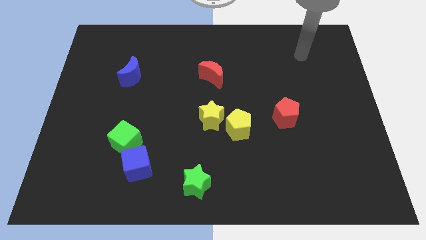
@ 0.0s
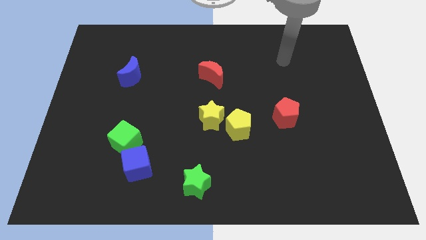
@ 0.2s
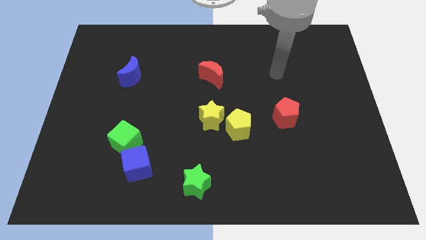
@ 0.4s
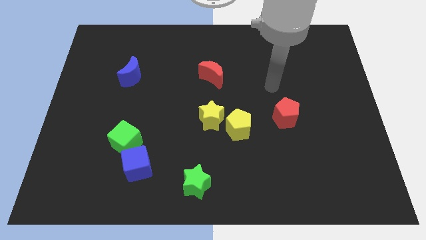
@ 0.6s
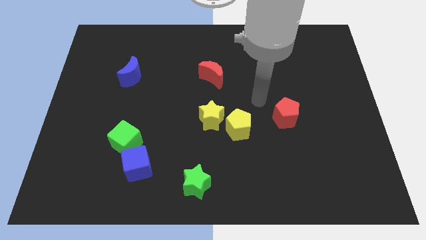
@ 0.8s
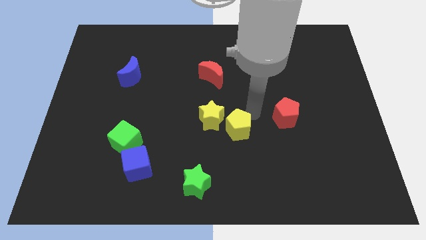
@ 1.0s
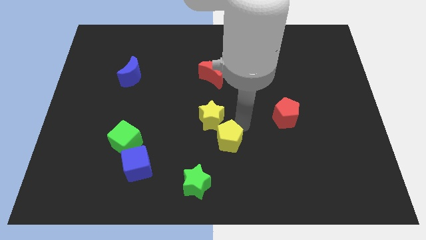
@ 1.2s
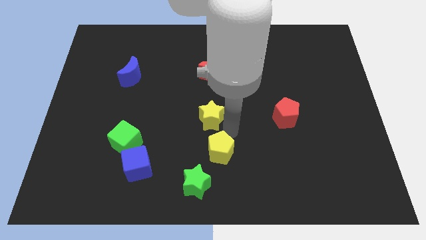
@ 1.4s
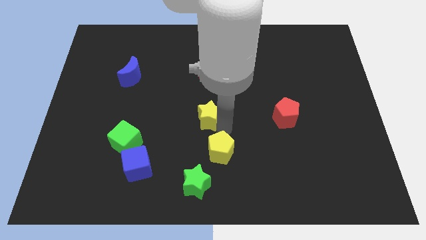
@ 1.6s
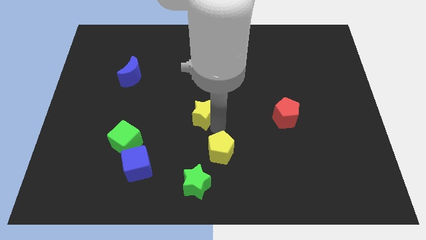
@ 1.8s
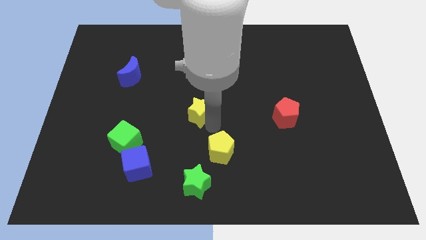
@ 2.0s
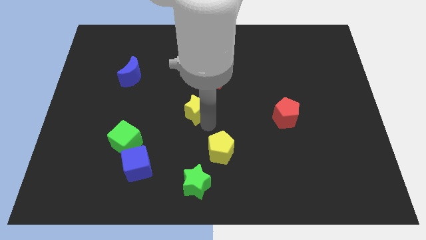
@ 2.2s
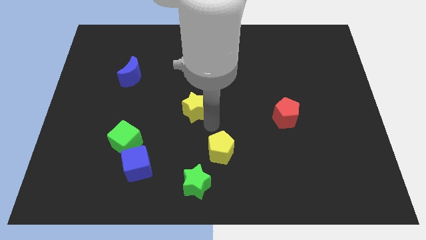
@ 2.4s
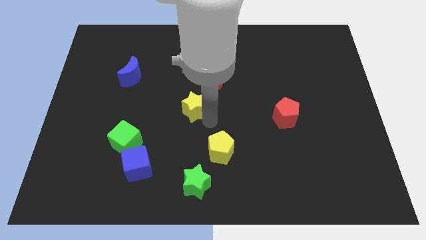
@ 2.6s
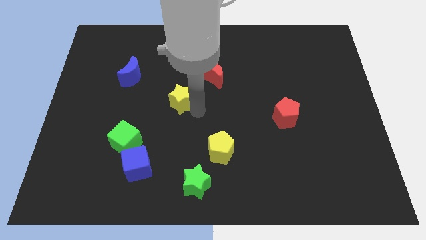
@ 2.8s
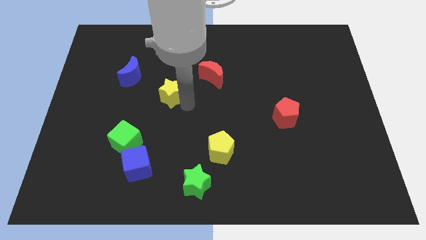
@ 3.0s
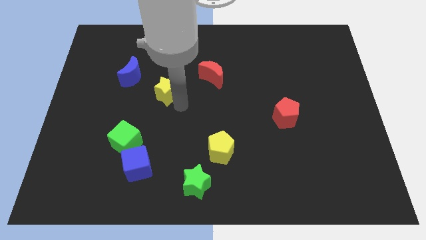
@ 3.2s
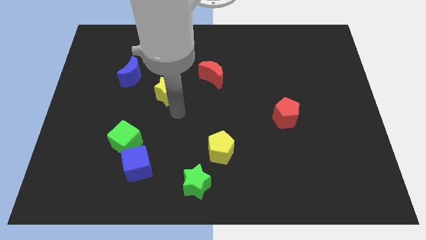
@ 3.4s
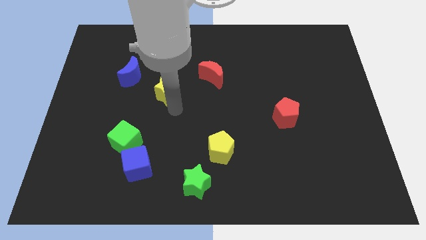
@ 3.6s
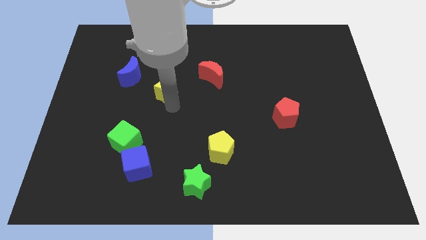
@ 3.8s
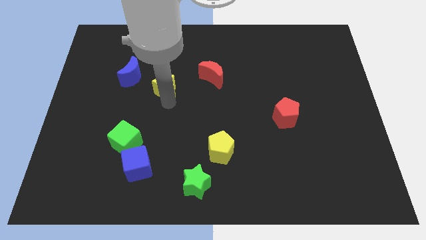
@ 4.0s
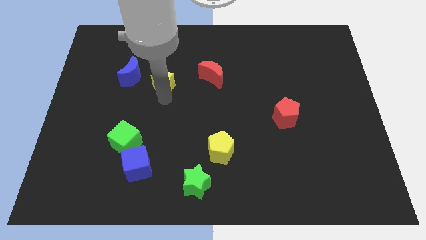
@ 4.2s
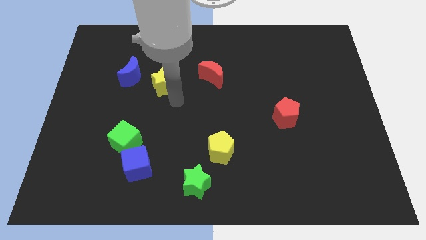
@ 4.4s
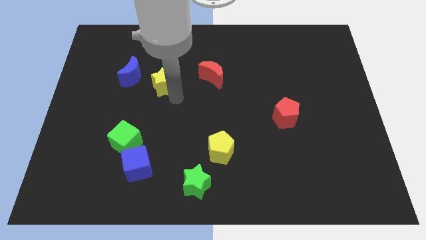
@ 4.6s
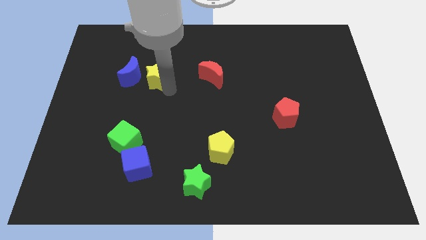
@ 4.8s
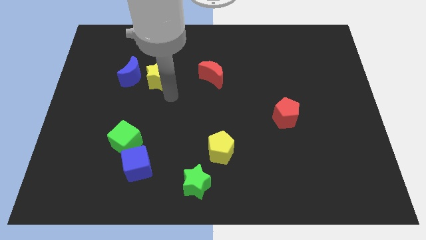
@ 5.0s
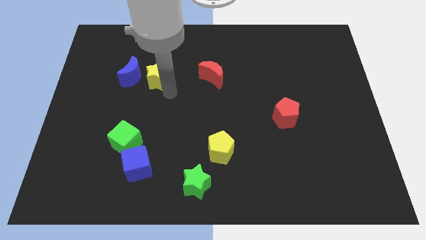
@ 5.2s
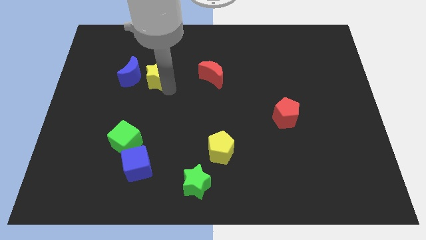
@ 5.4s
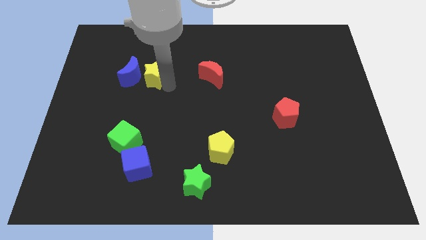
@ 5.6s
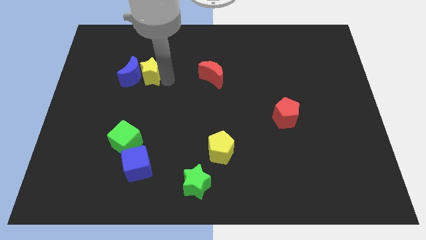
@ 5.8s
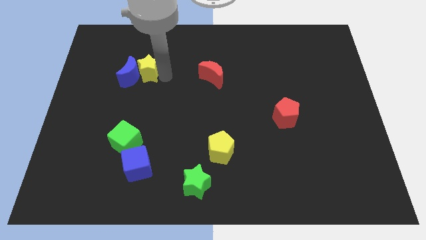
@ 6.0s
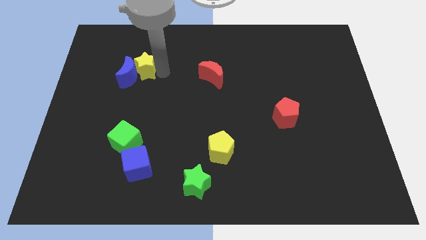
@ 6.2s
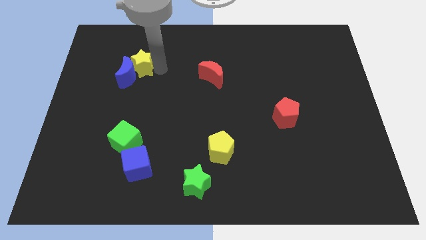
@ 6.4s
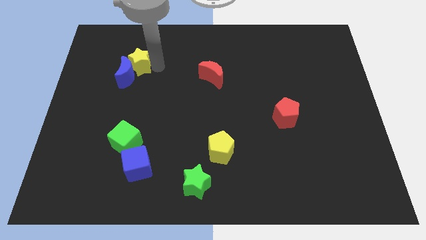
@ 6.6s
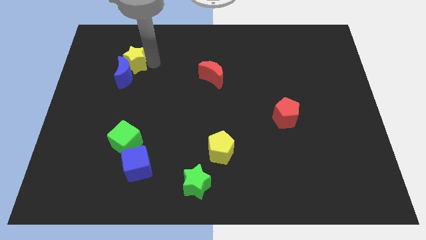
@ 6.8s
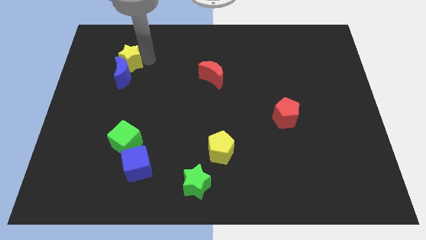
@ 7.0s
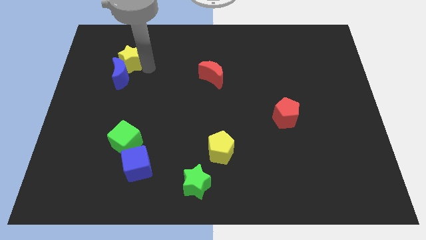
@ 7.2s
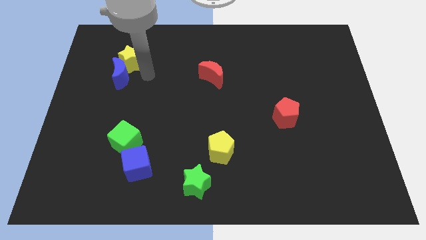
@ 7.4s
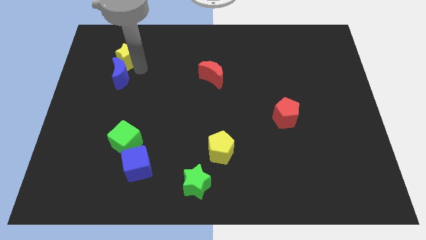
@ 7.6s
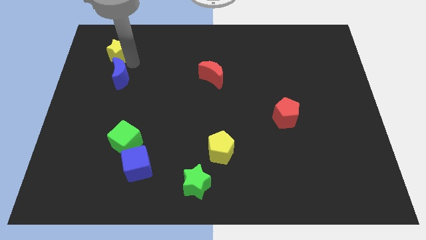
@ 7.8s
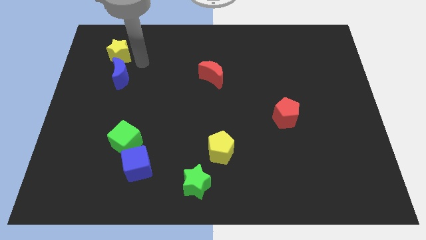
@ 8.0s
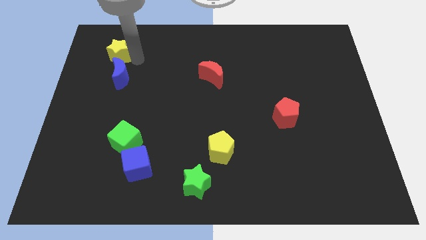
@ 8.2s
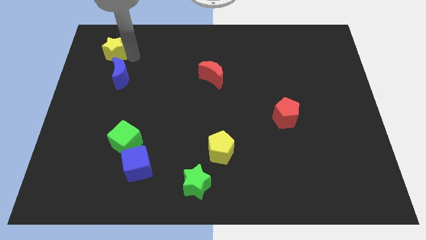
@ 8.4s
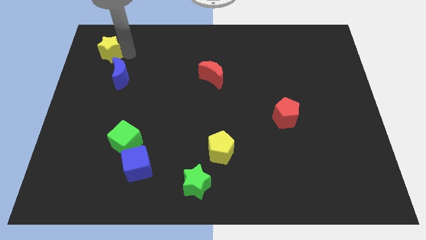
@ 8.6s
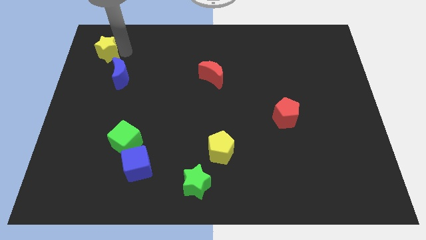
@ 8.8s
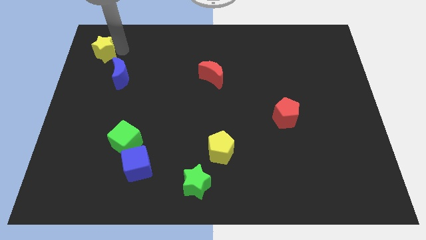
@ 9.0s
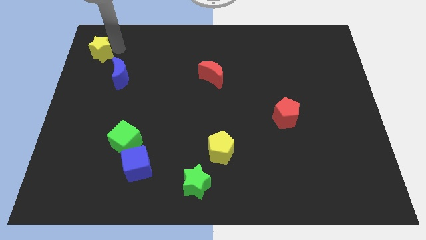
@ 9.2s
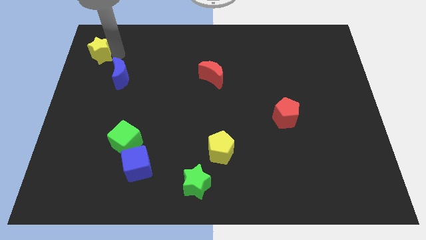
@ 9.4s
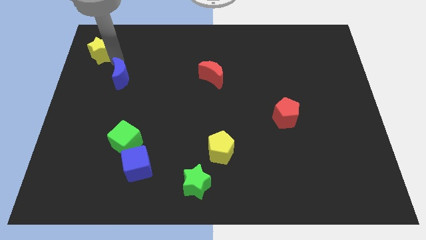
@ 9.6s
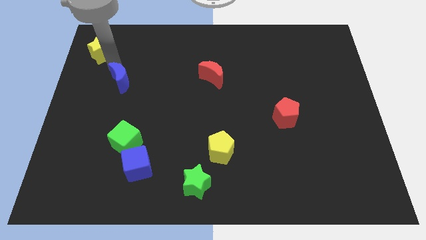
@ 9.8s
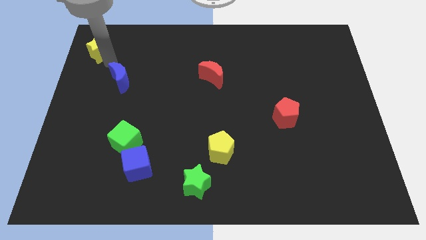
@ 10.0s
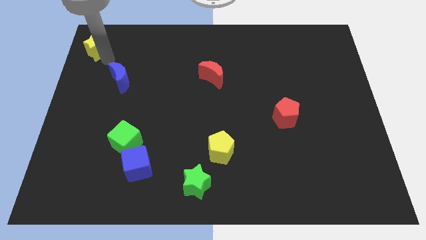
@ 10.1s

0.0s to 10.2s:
slide the yellow star to the top left corner

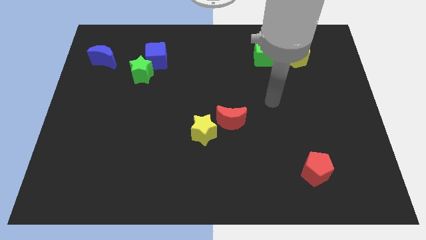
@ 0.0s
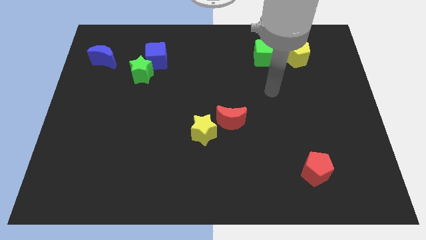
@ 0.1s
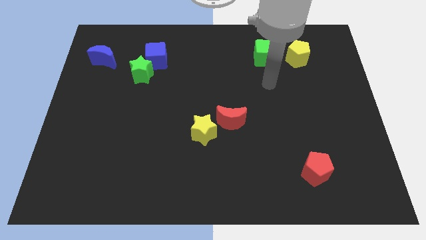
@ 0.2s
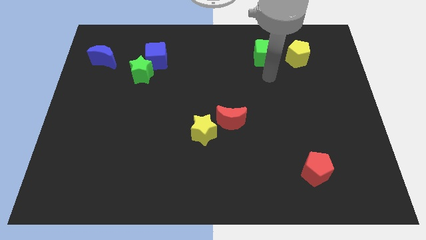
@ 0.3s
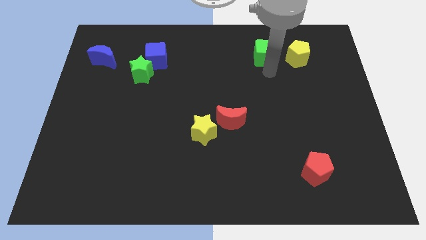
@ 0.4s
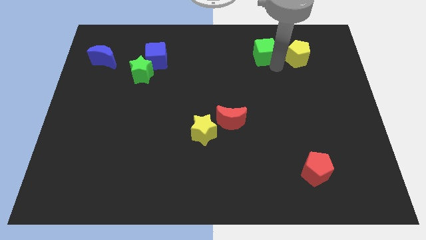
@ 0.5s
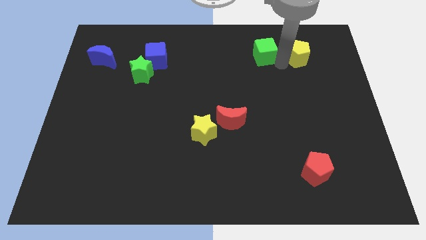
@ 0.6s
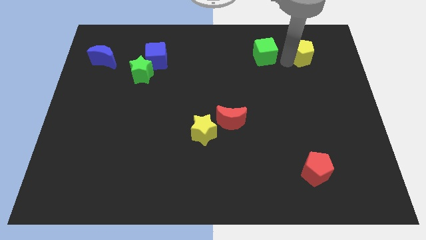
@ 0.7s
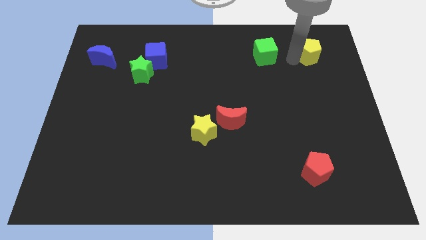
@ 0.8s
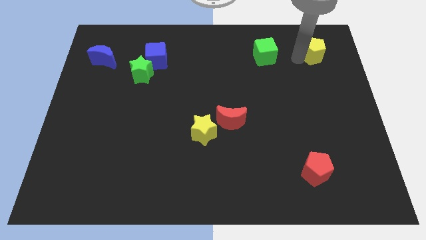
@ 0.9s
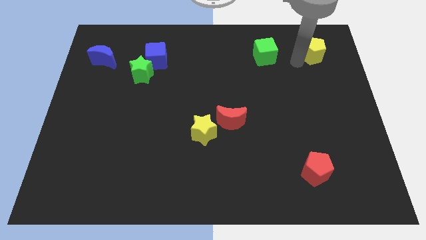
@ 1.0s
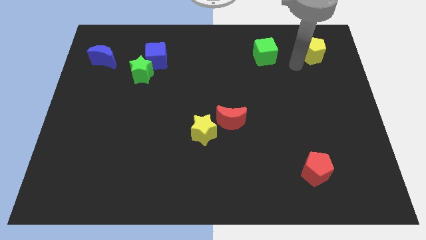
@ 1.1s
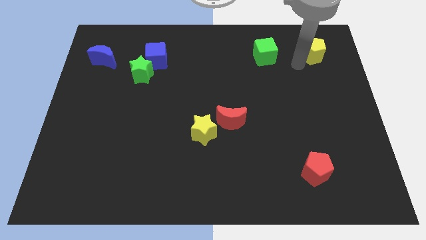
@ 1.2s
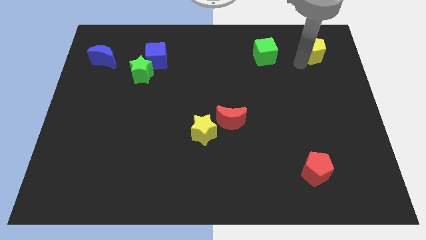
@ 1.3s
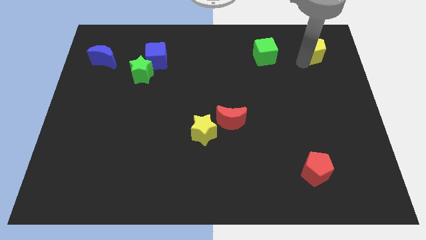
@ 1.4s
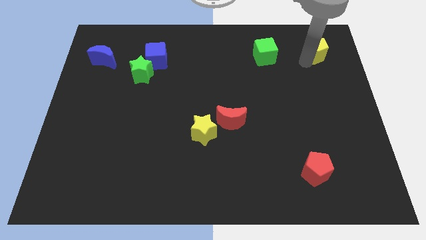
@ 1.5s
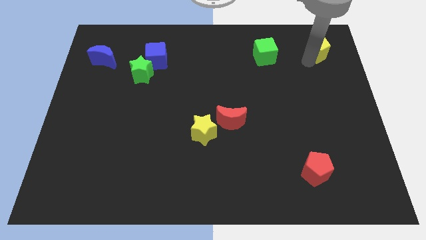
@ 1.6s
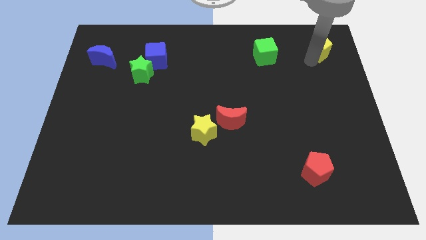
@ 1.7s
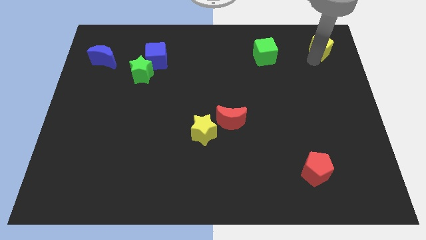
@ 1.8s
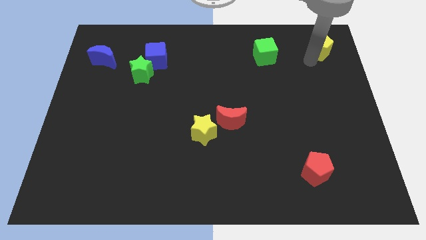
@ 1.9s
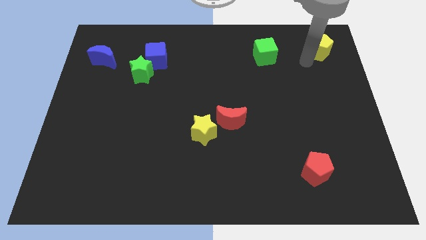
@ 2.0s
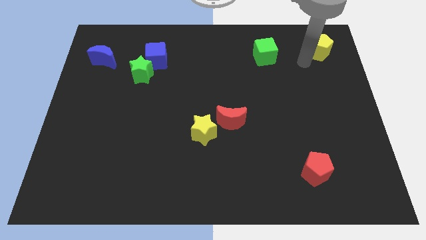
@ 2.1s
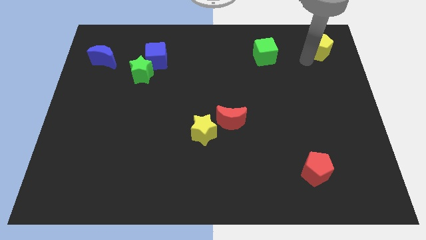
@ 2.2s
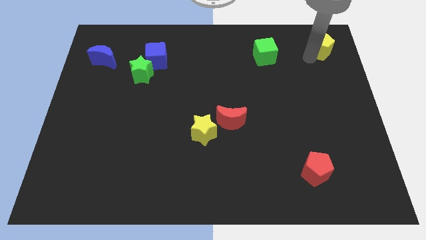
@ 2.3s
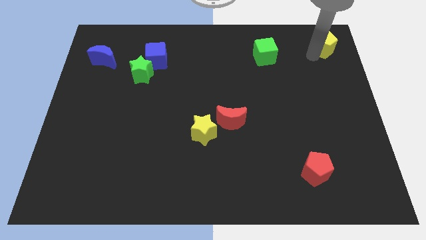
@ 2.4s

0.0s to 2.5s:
move the yellow pentagon to the top right corner
